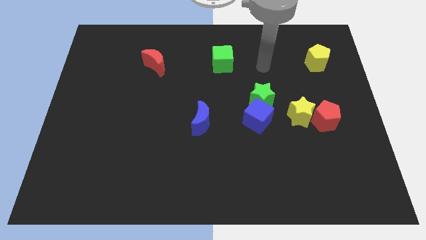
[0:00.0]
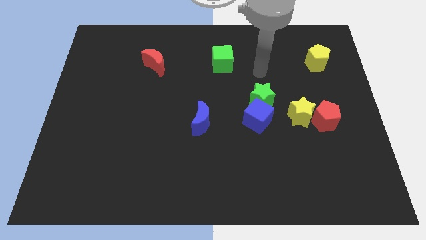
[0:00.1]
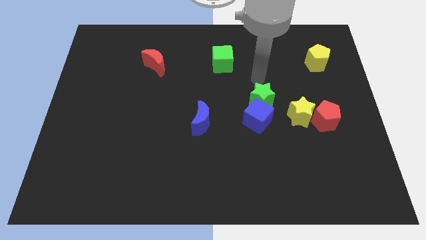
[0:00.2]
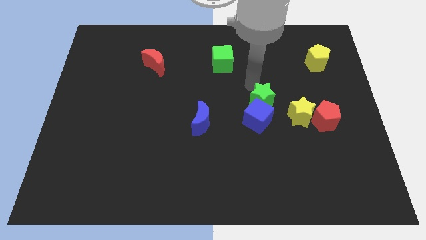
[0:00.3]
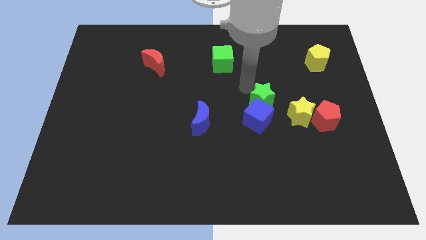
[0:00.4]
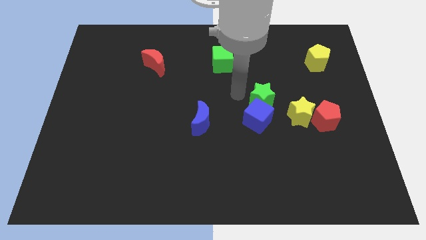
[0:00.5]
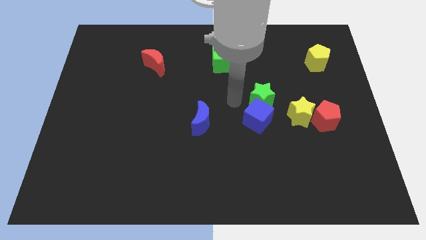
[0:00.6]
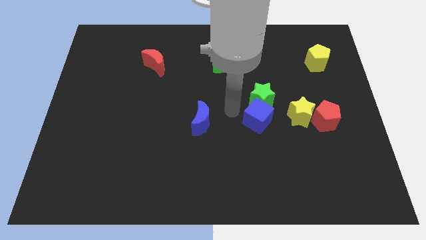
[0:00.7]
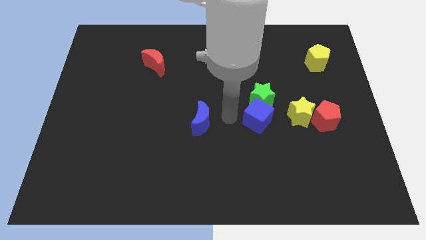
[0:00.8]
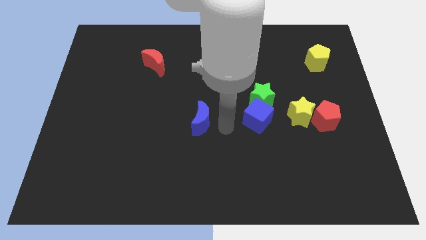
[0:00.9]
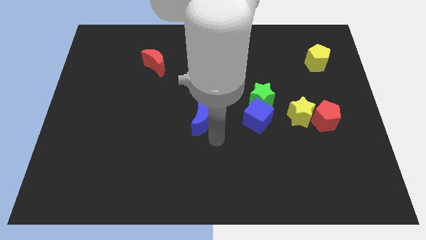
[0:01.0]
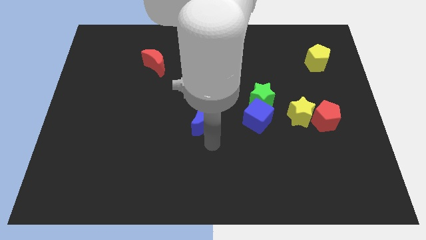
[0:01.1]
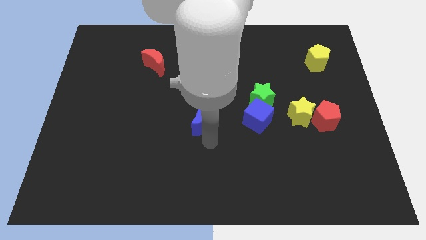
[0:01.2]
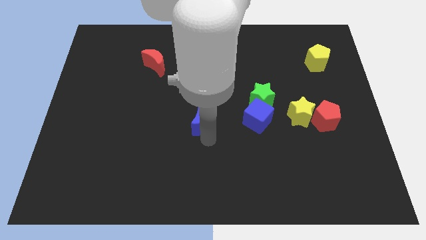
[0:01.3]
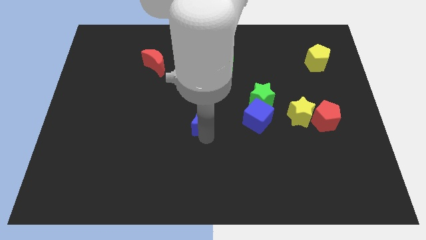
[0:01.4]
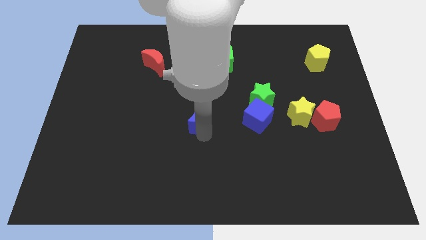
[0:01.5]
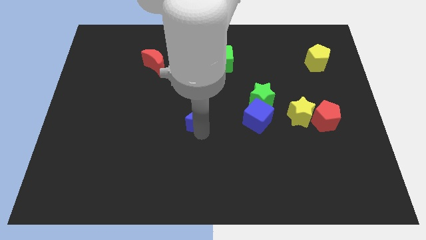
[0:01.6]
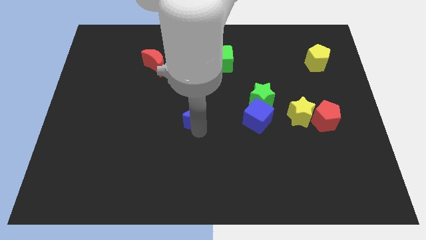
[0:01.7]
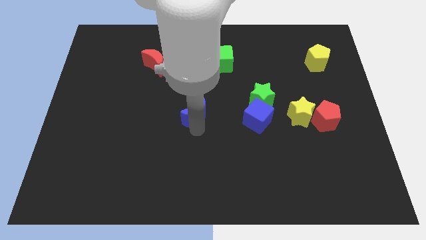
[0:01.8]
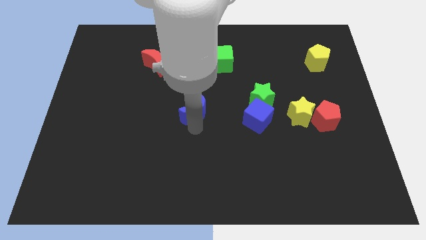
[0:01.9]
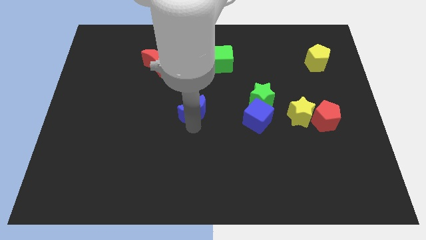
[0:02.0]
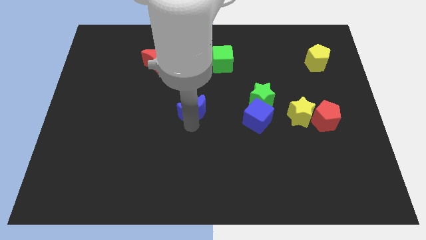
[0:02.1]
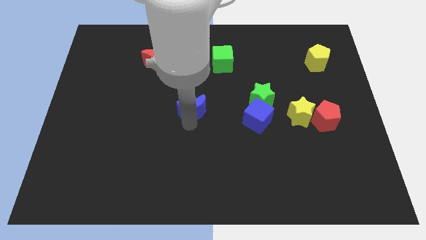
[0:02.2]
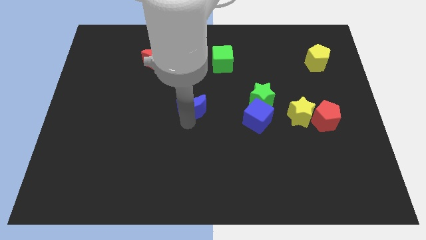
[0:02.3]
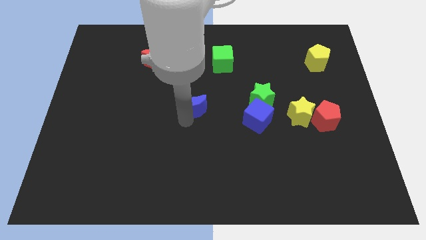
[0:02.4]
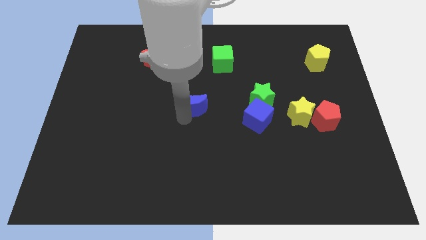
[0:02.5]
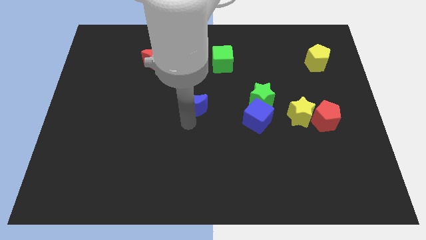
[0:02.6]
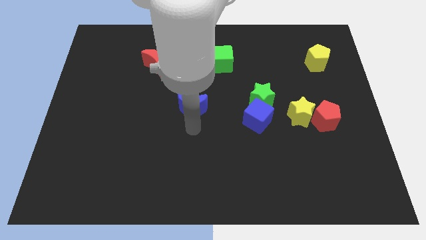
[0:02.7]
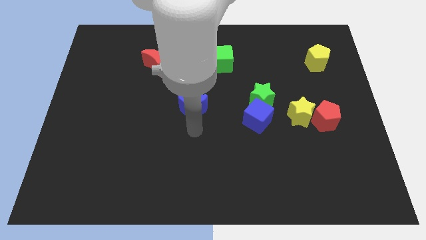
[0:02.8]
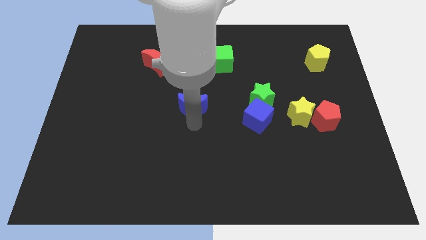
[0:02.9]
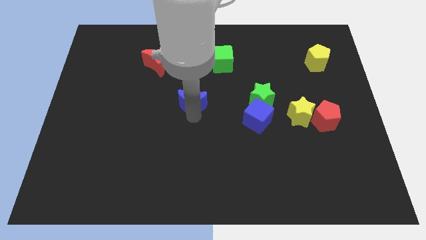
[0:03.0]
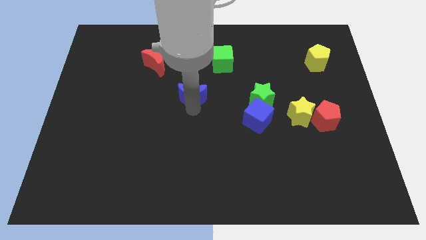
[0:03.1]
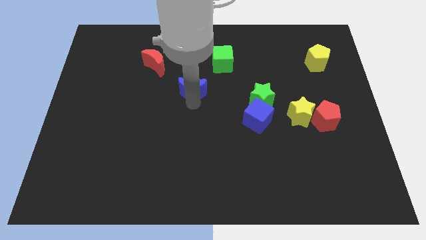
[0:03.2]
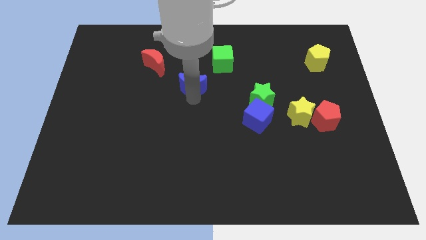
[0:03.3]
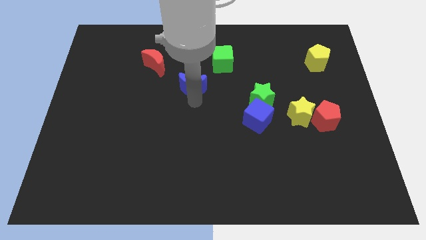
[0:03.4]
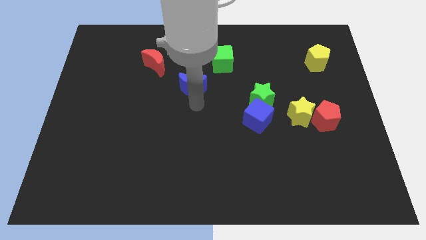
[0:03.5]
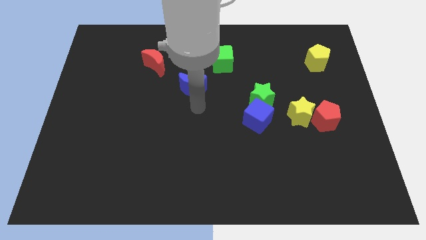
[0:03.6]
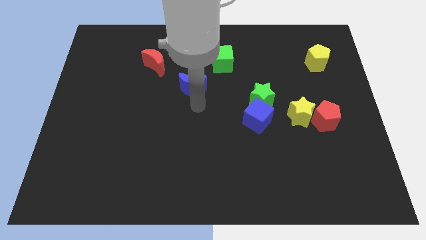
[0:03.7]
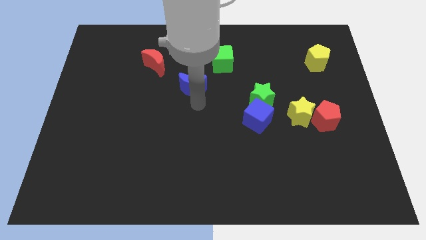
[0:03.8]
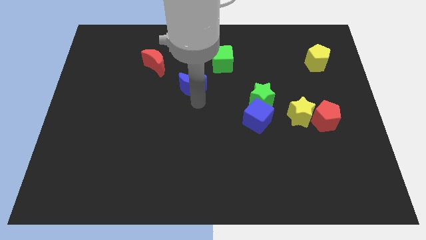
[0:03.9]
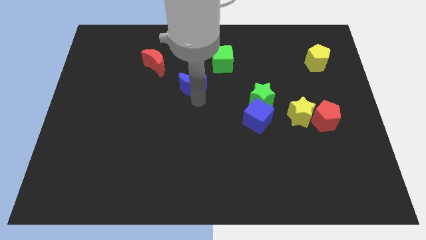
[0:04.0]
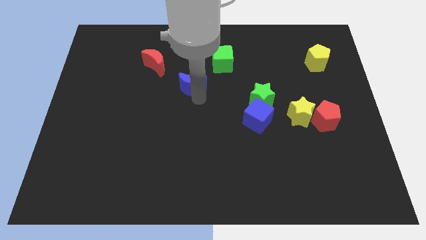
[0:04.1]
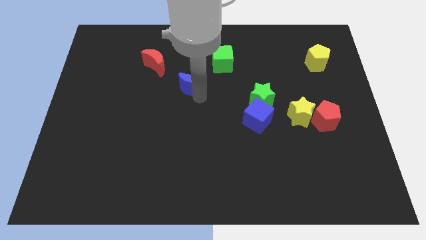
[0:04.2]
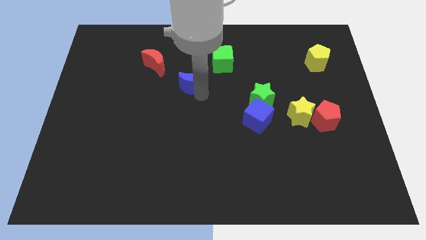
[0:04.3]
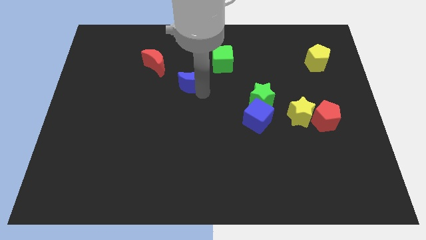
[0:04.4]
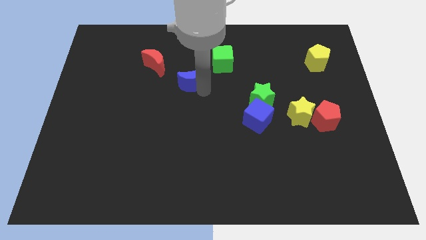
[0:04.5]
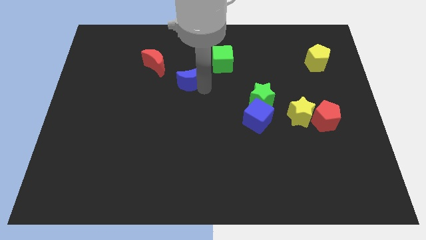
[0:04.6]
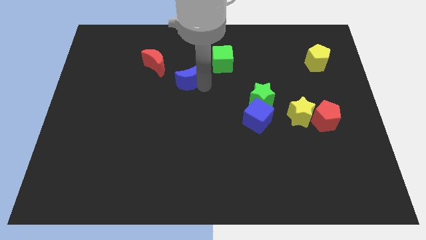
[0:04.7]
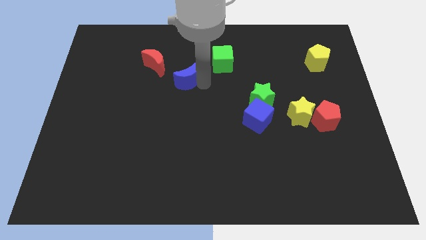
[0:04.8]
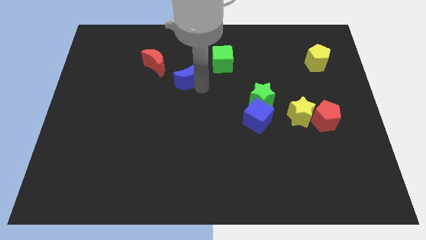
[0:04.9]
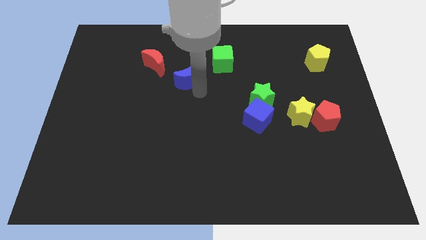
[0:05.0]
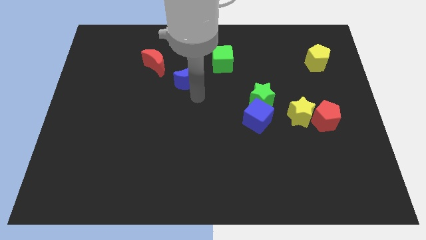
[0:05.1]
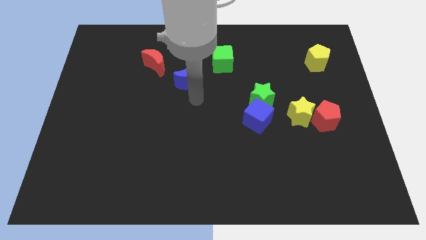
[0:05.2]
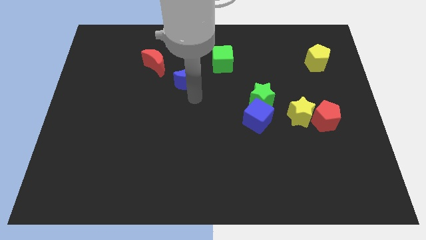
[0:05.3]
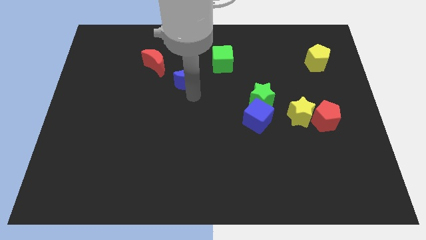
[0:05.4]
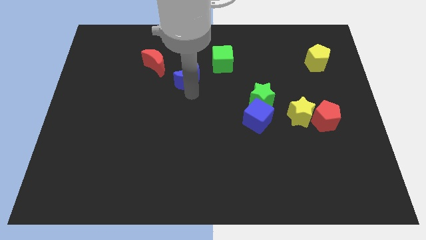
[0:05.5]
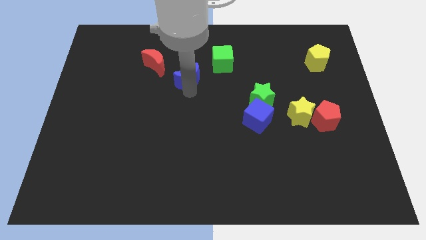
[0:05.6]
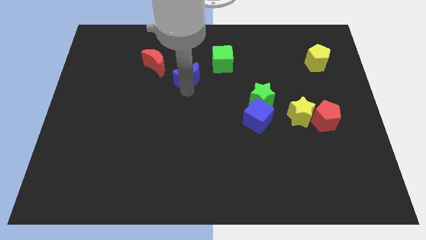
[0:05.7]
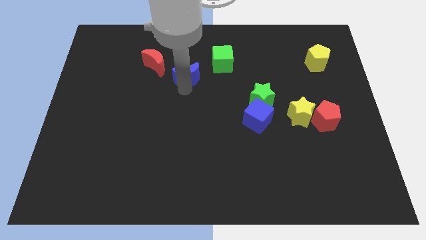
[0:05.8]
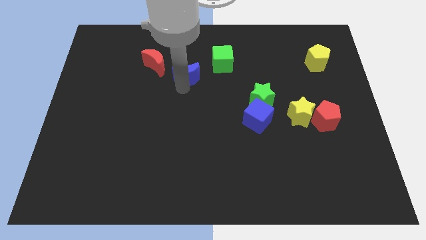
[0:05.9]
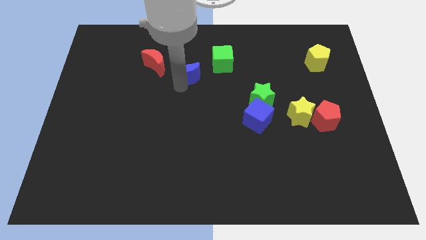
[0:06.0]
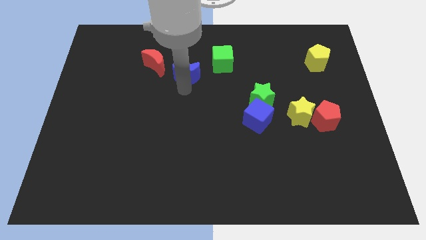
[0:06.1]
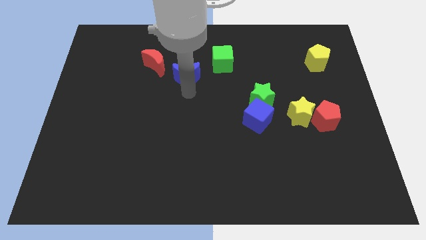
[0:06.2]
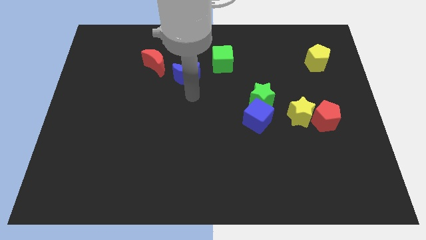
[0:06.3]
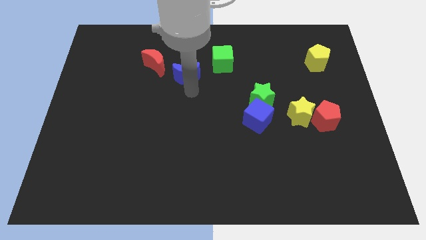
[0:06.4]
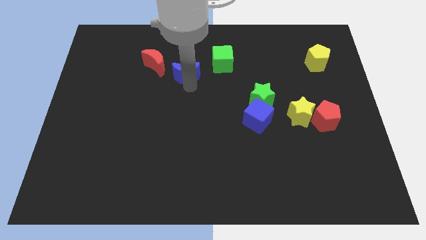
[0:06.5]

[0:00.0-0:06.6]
move the blue moon to the left side of the green cube

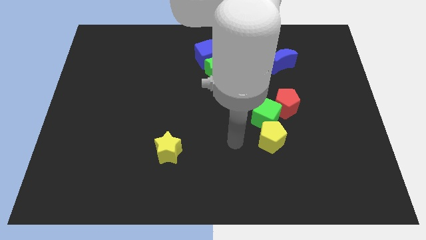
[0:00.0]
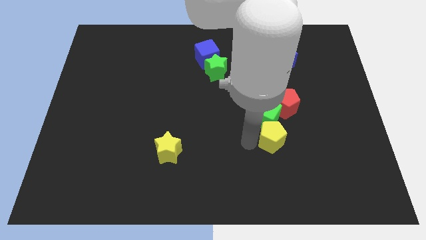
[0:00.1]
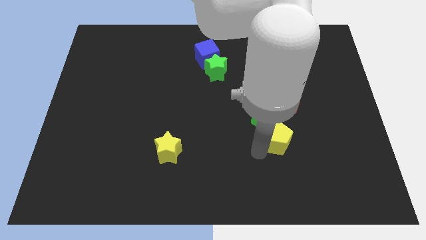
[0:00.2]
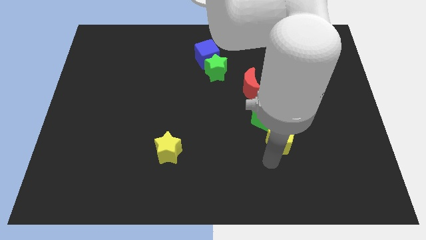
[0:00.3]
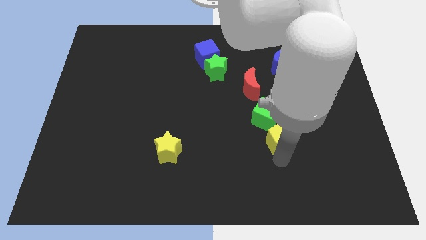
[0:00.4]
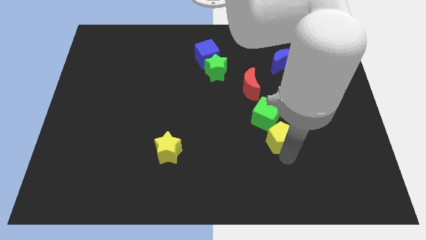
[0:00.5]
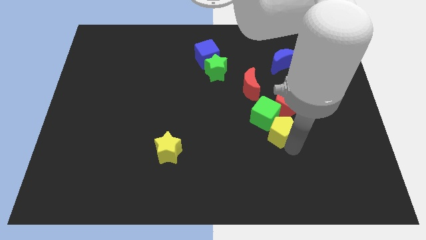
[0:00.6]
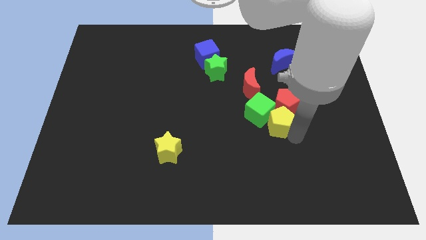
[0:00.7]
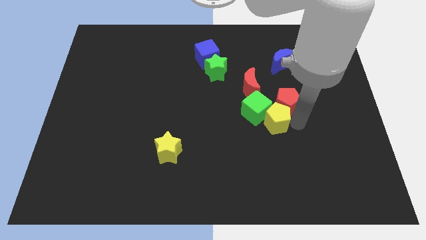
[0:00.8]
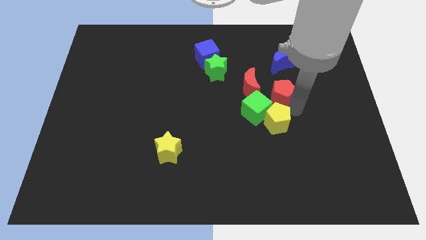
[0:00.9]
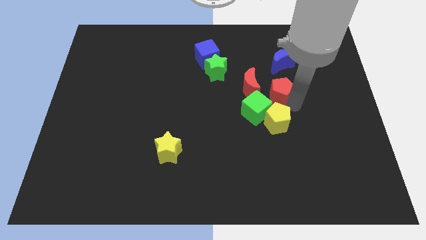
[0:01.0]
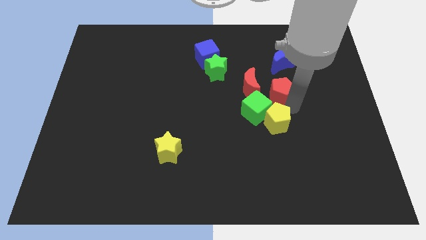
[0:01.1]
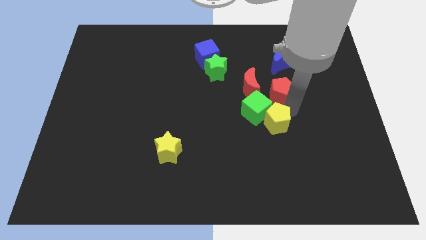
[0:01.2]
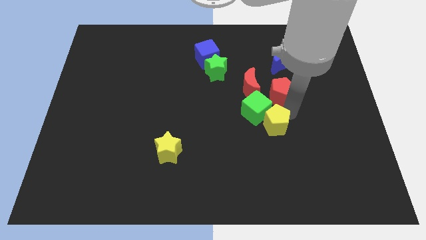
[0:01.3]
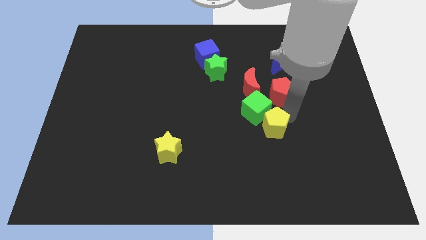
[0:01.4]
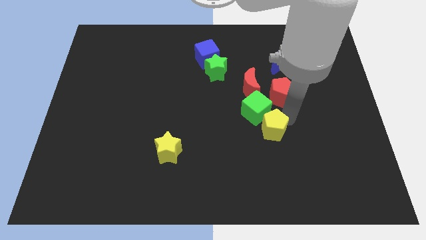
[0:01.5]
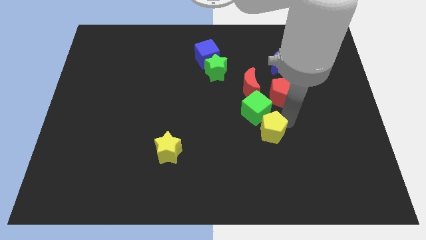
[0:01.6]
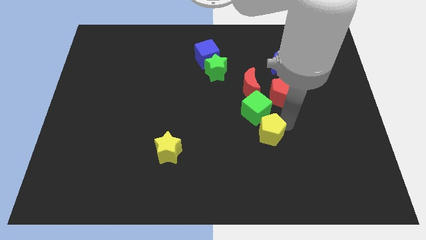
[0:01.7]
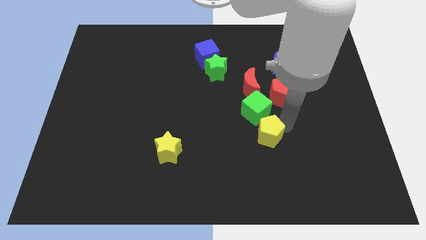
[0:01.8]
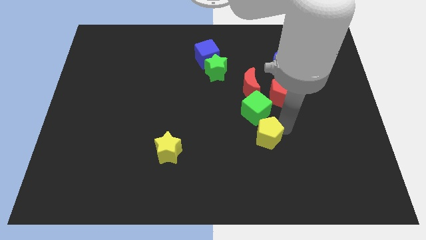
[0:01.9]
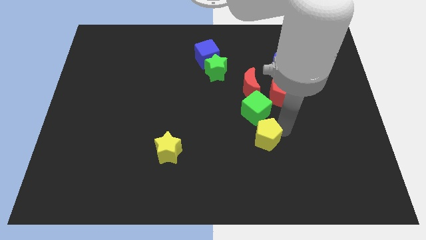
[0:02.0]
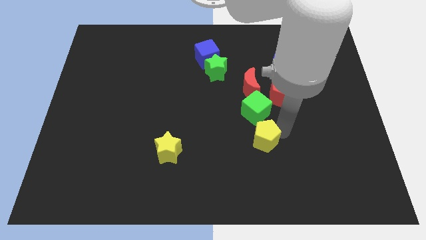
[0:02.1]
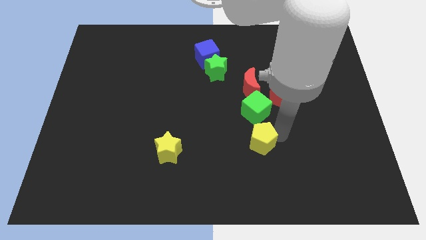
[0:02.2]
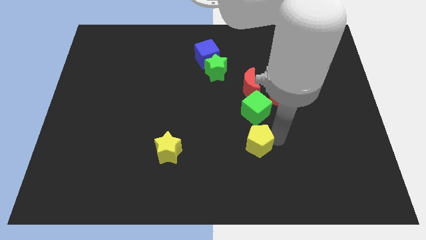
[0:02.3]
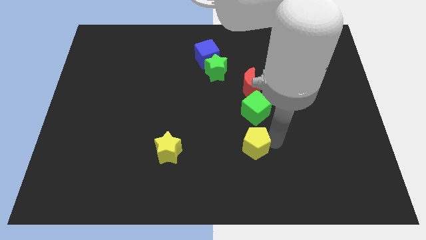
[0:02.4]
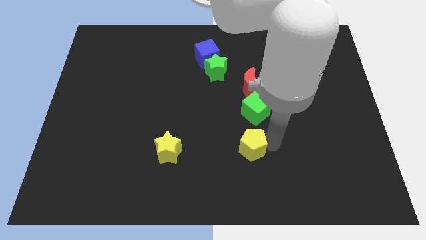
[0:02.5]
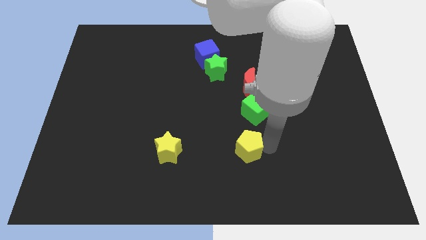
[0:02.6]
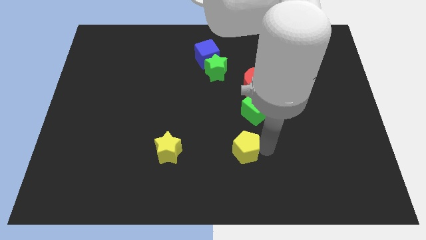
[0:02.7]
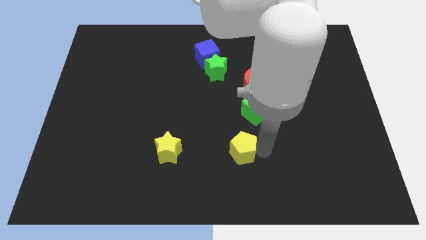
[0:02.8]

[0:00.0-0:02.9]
put the yellow pentagon just right of the yellow star
